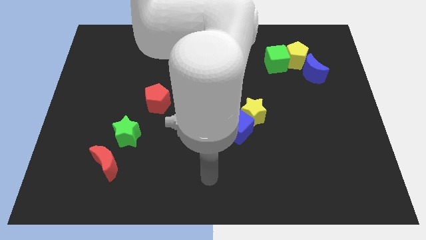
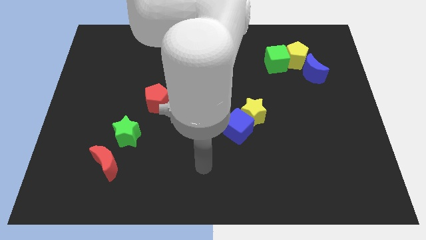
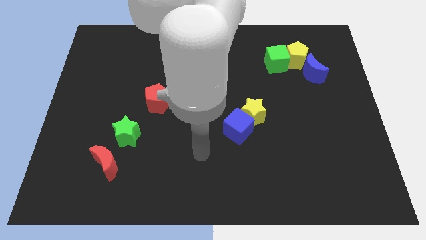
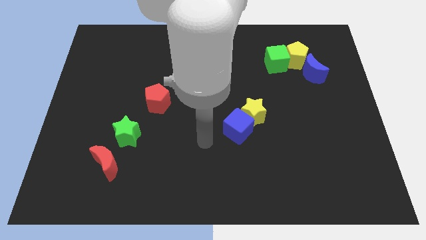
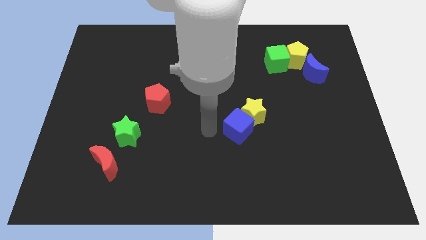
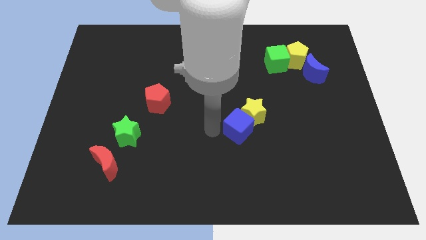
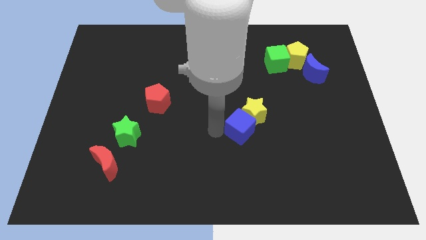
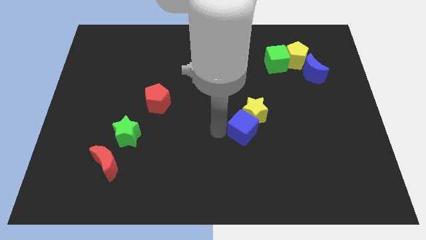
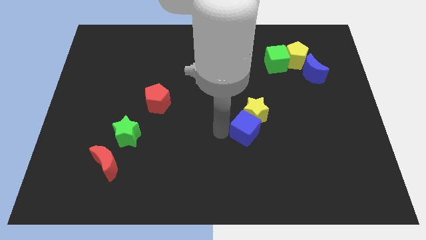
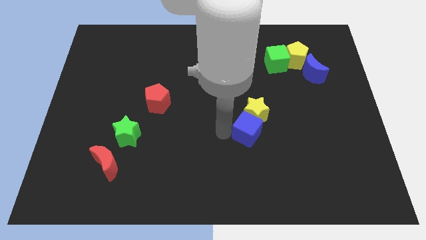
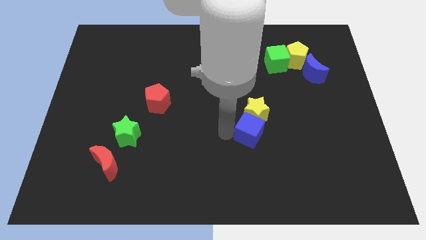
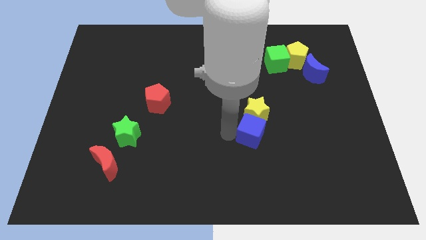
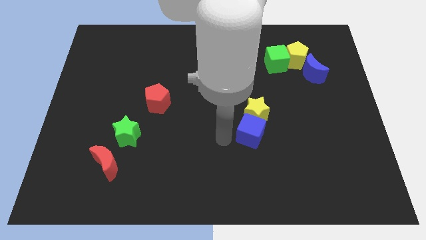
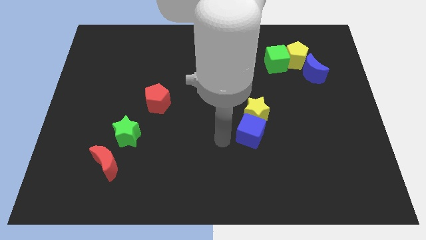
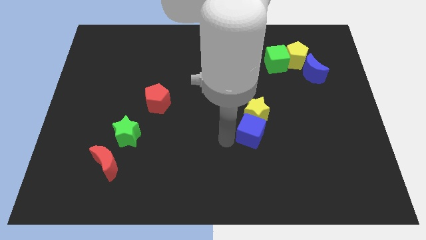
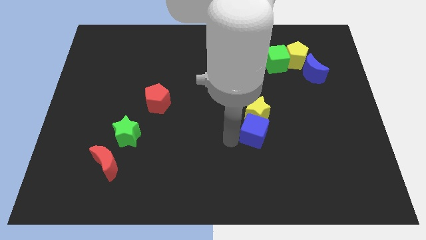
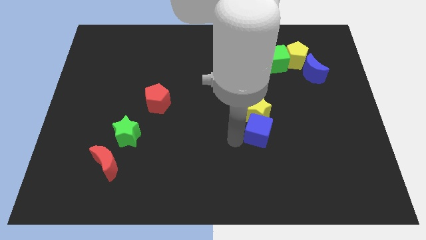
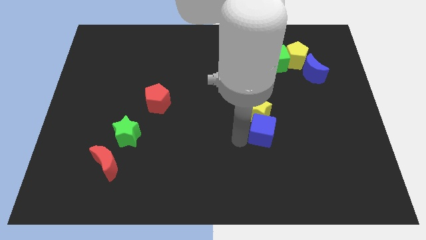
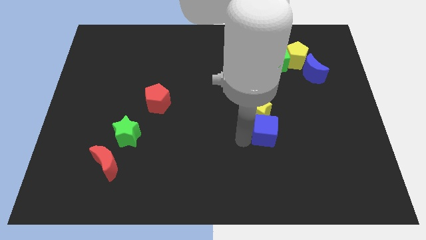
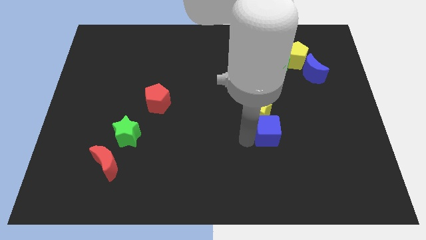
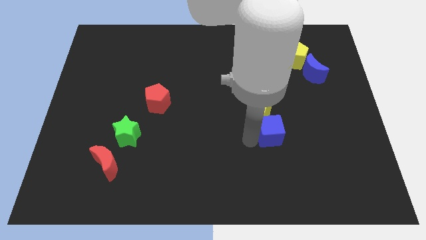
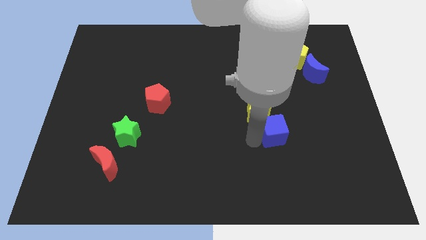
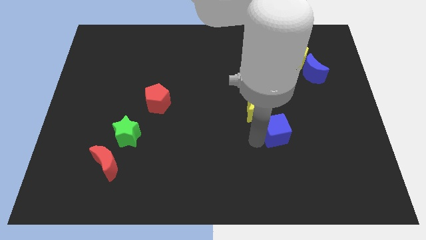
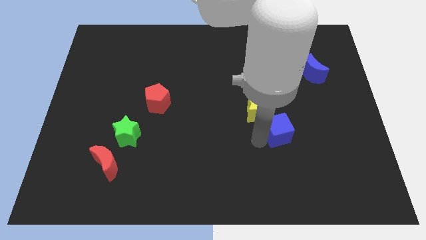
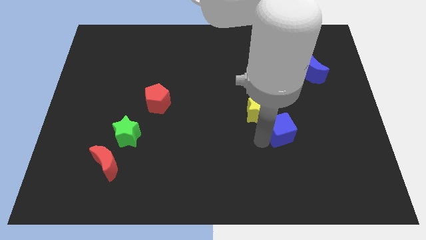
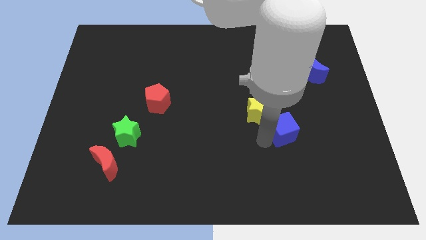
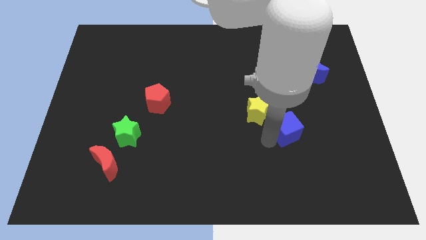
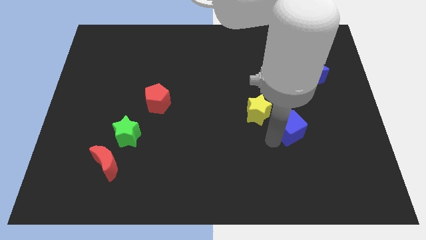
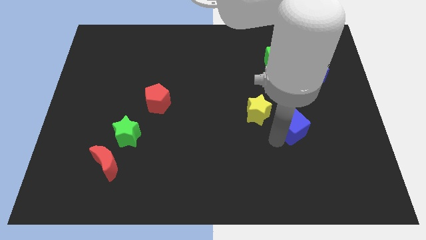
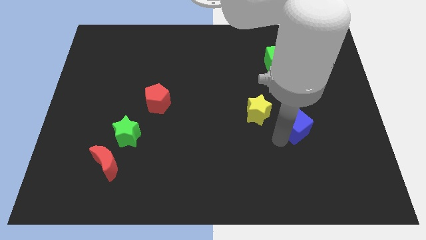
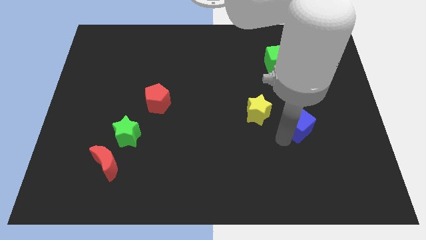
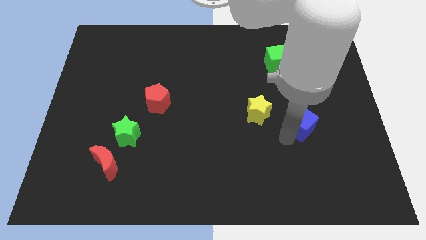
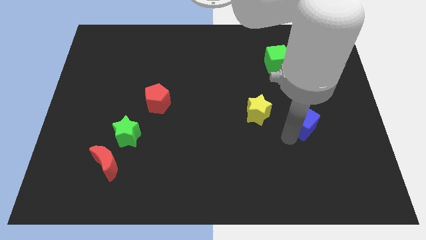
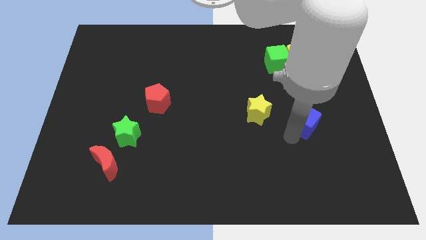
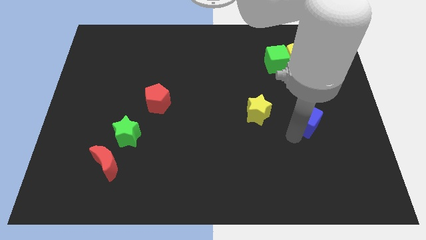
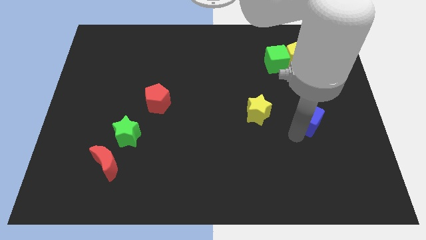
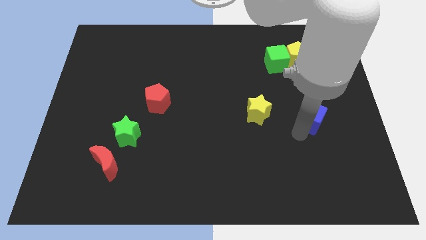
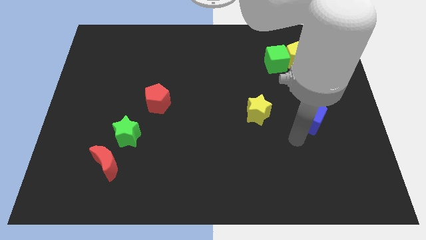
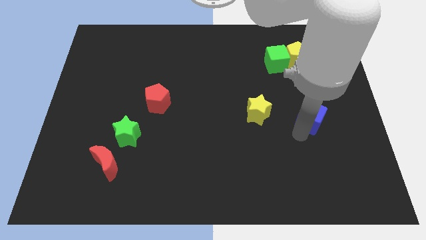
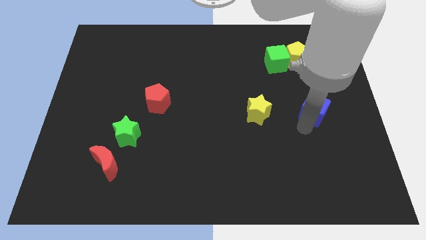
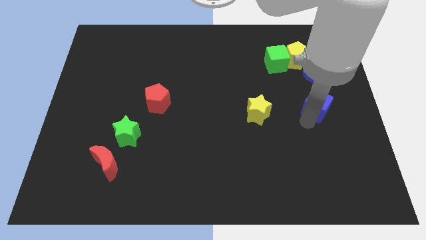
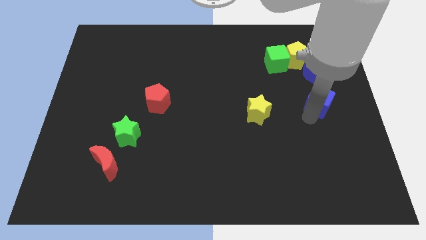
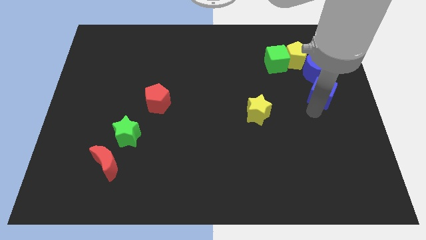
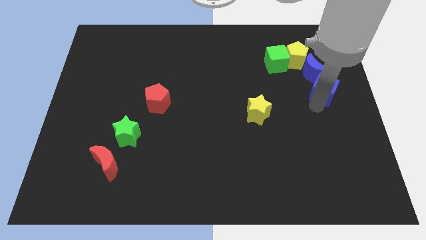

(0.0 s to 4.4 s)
push the blue cube diagonally up and right

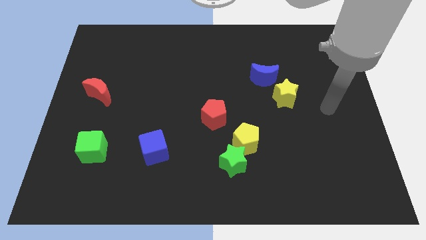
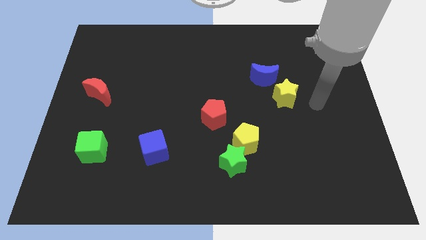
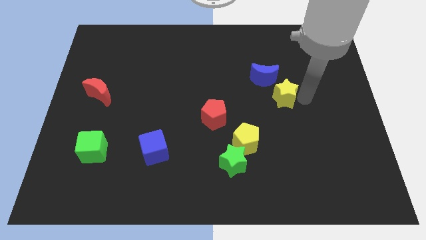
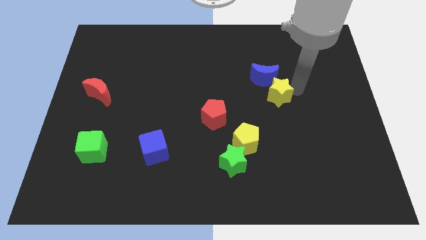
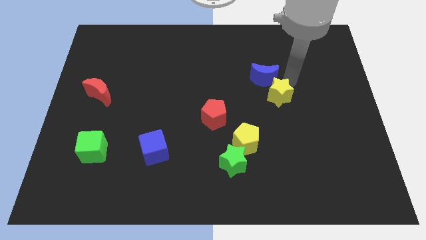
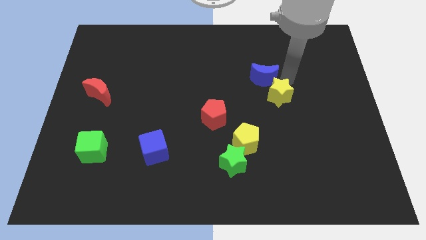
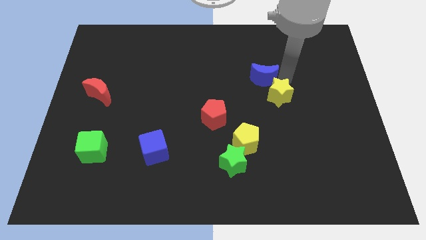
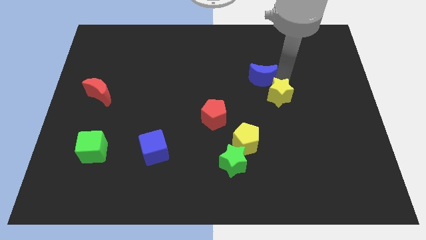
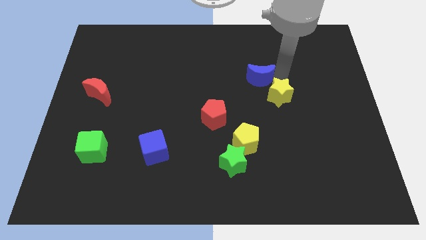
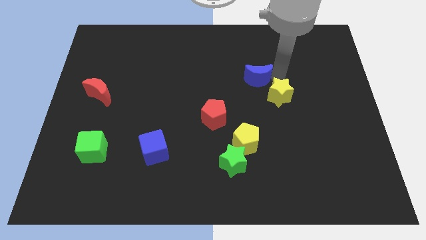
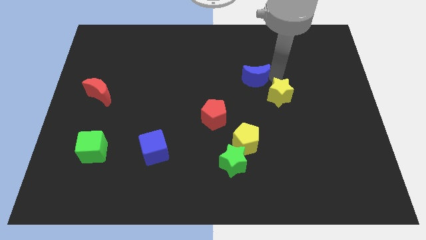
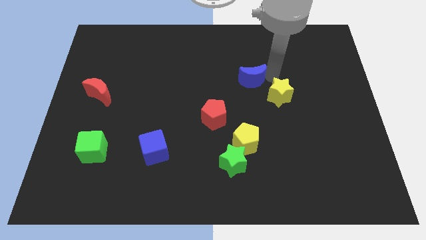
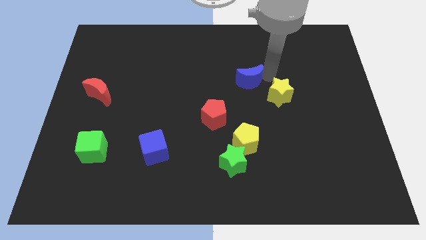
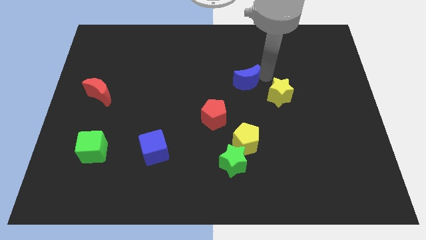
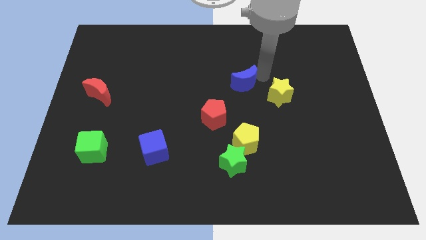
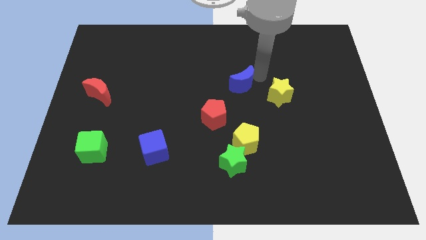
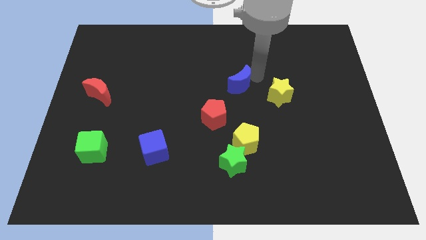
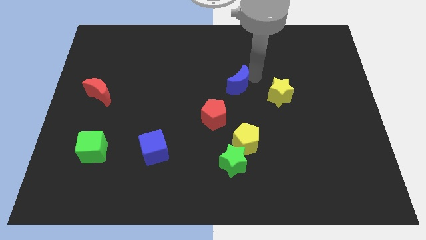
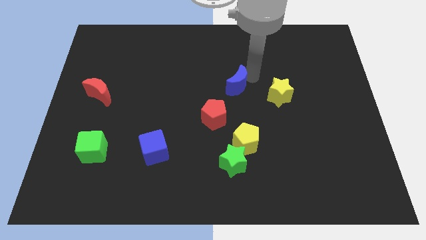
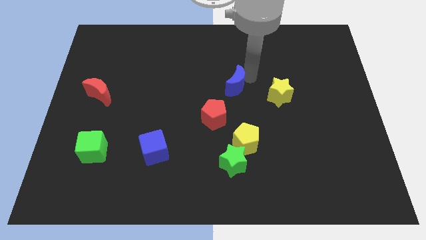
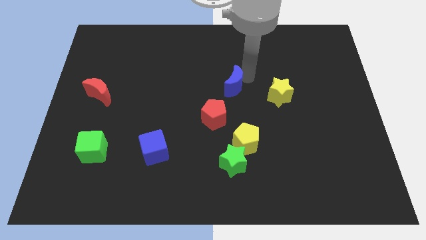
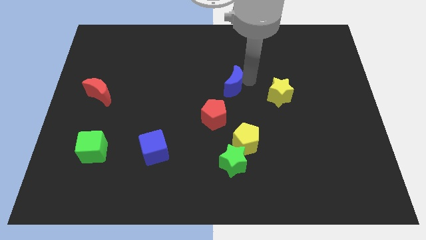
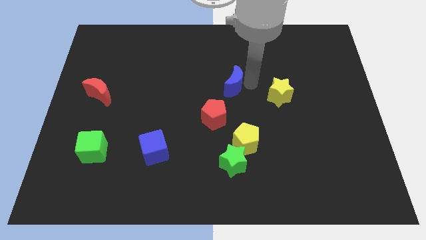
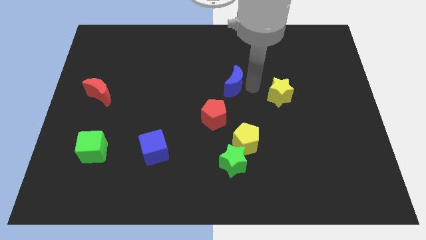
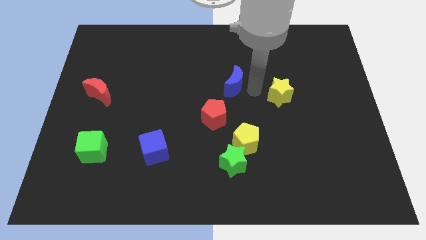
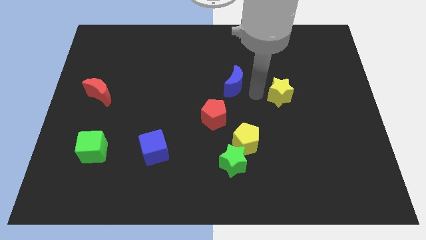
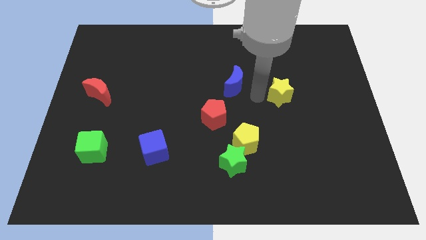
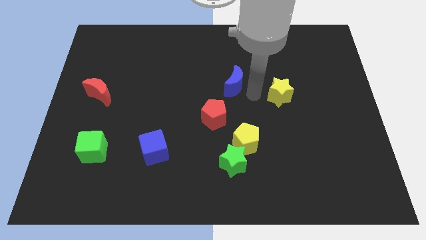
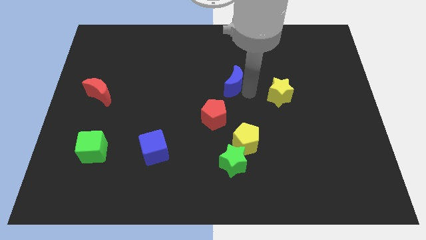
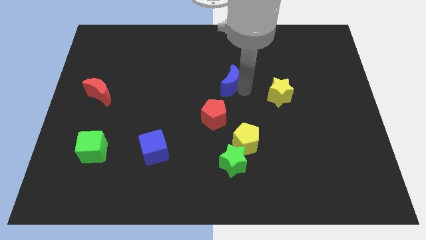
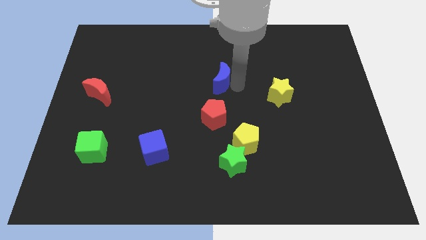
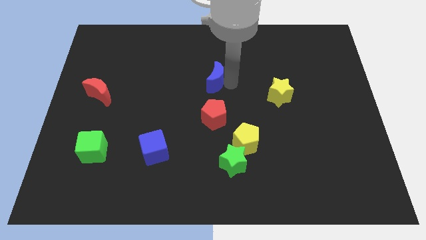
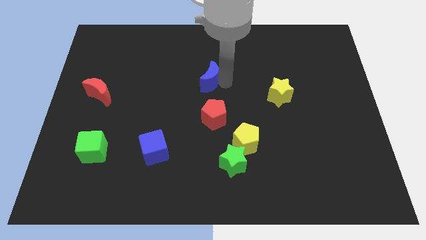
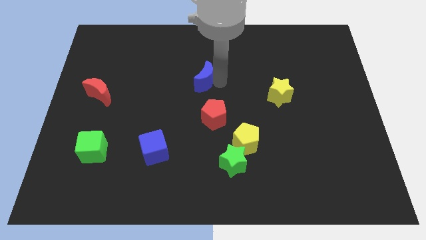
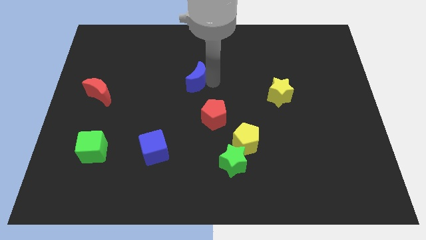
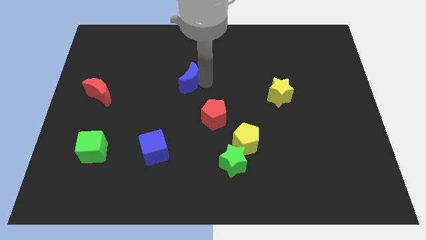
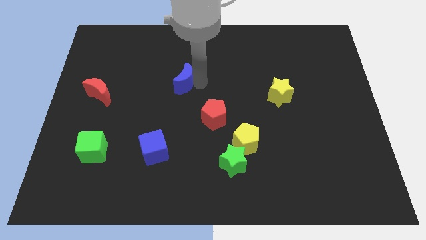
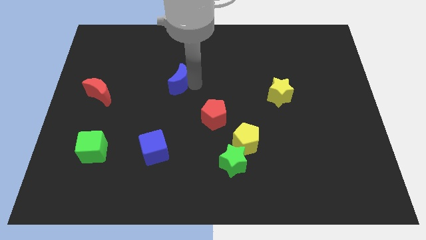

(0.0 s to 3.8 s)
push the blue moon left
